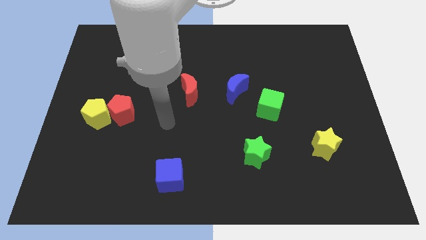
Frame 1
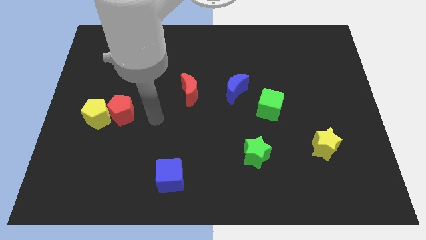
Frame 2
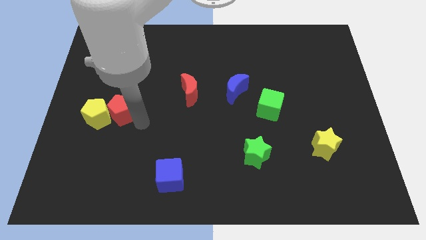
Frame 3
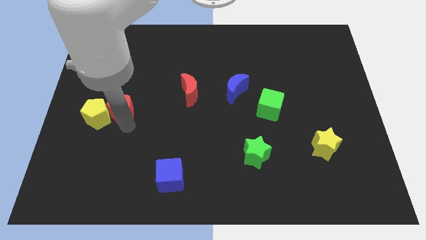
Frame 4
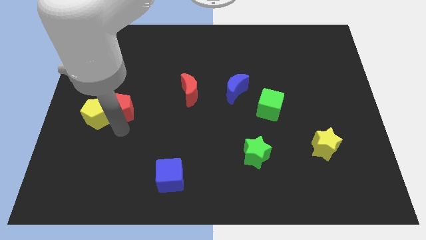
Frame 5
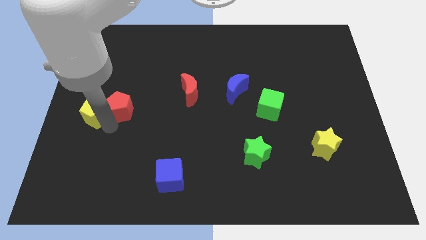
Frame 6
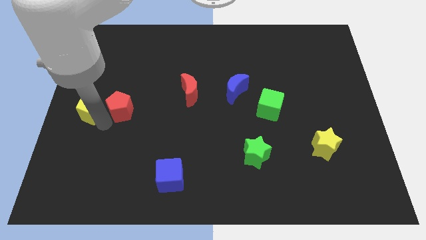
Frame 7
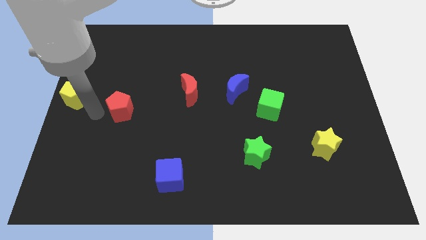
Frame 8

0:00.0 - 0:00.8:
pull the red pentagon apart from the yellow pentagon

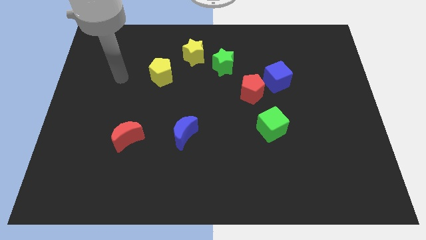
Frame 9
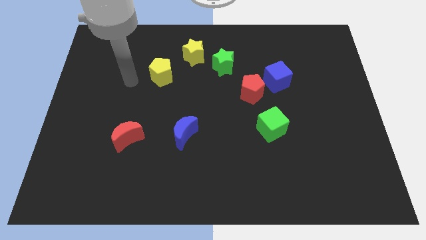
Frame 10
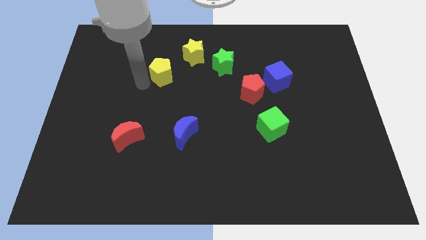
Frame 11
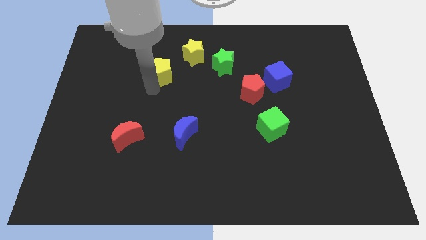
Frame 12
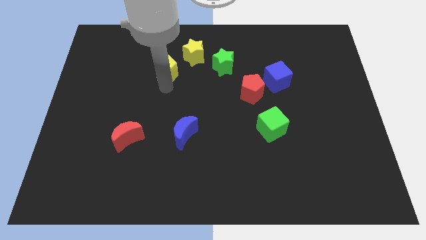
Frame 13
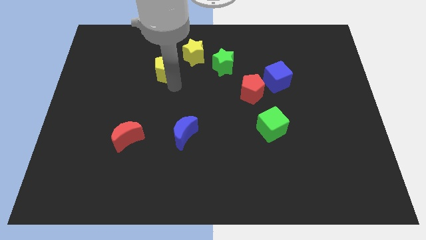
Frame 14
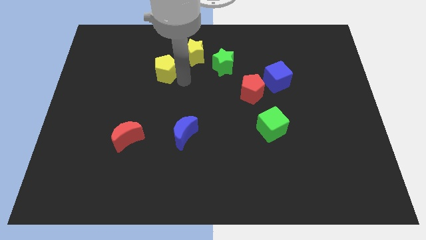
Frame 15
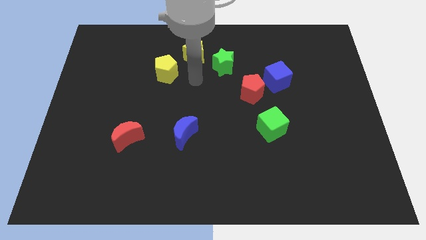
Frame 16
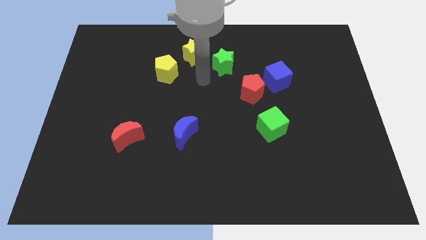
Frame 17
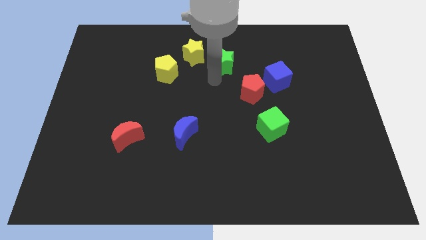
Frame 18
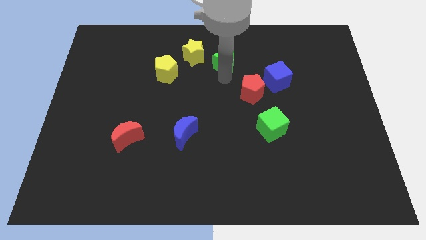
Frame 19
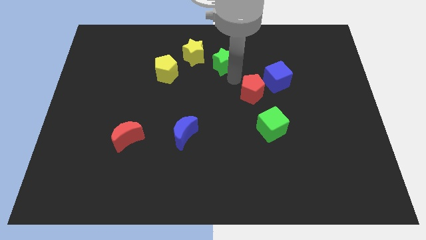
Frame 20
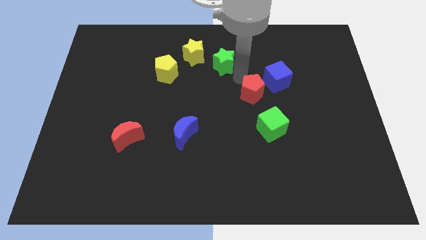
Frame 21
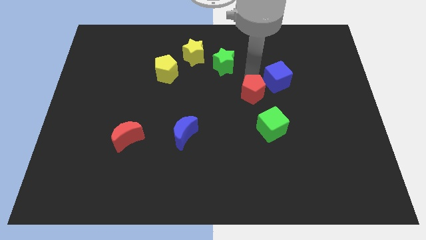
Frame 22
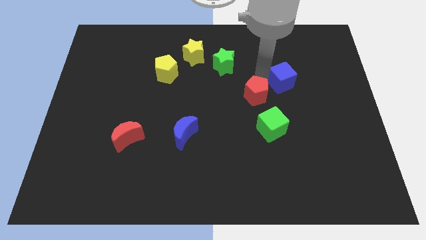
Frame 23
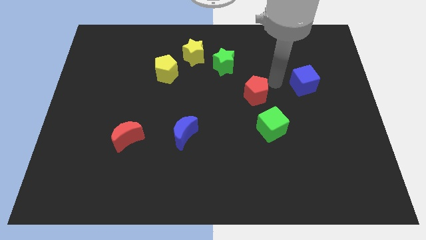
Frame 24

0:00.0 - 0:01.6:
pull the red pentagon apart from the blue cube

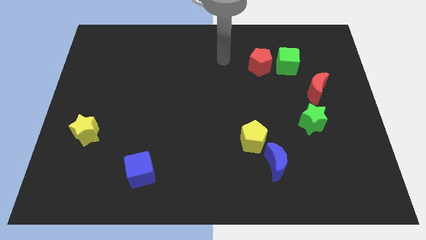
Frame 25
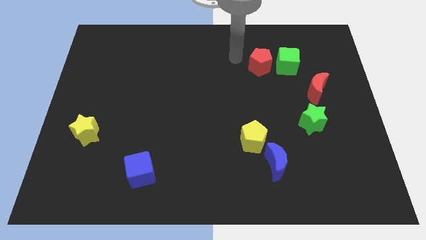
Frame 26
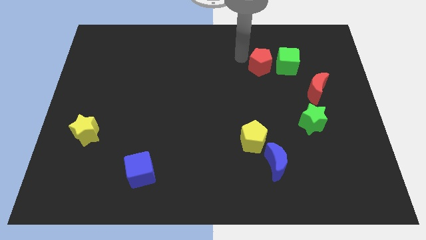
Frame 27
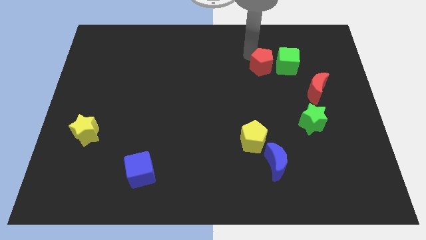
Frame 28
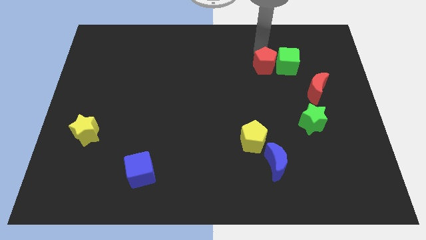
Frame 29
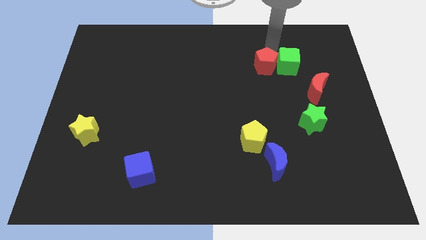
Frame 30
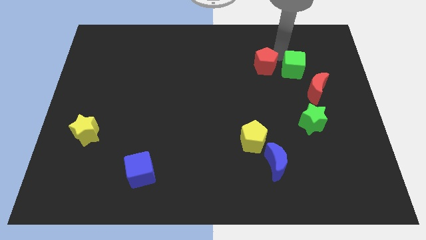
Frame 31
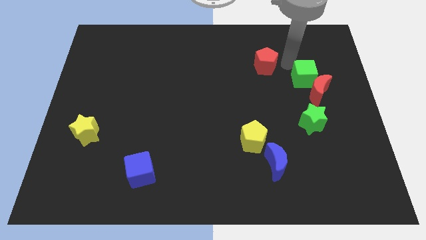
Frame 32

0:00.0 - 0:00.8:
move the red pentagon away from the green cube

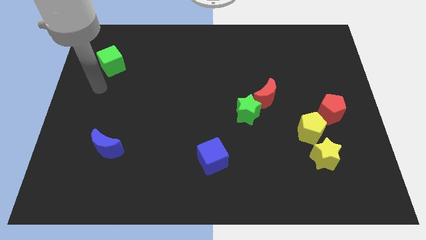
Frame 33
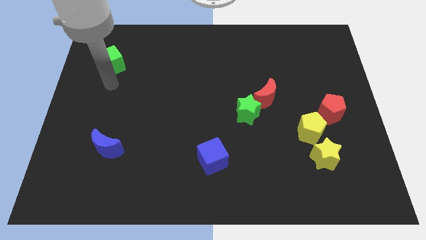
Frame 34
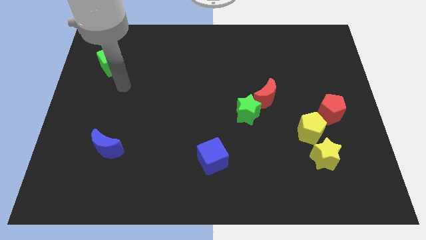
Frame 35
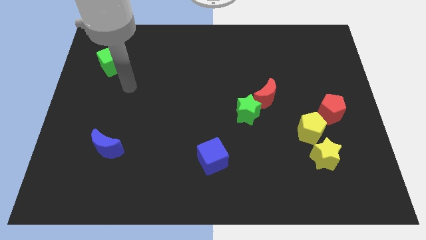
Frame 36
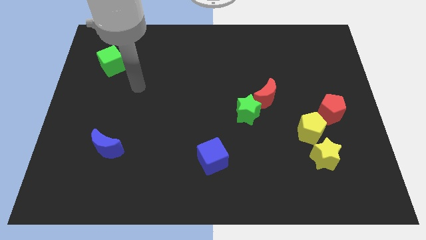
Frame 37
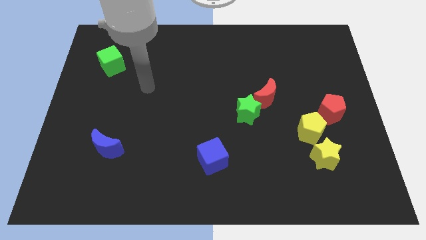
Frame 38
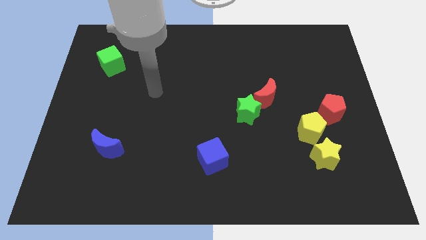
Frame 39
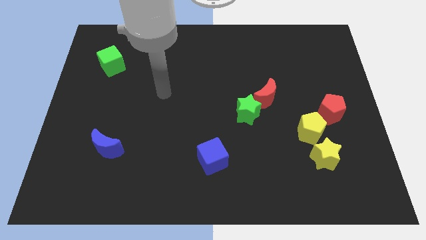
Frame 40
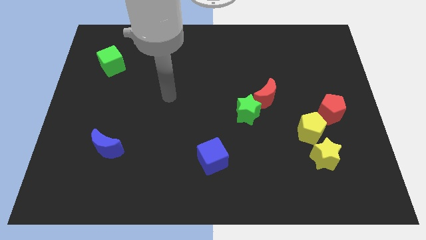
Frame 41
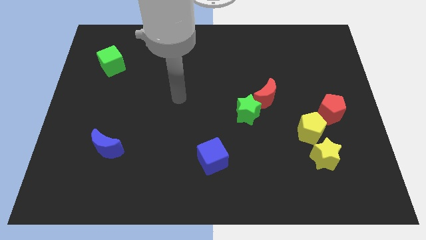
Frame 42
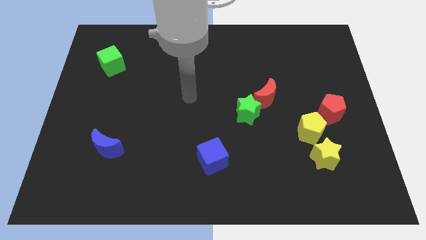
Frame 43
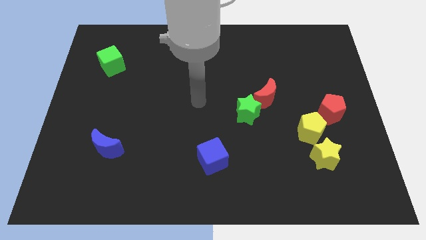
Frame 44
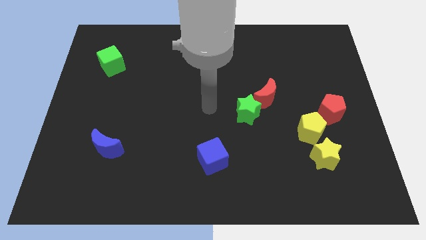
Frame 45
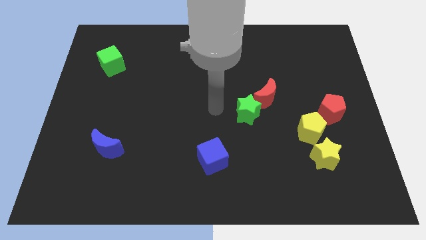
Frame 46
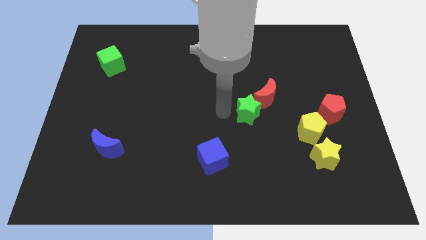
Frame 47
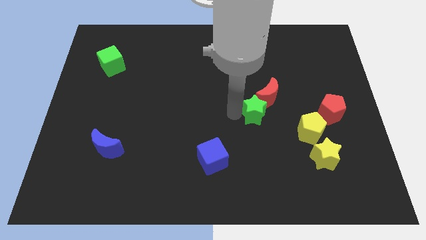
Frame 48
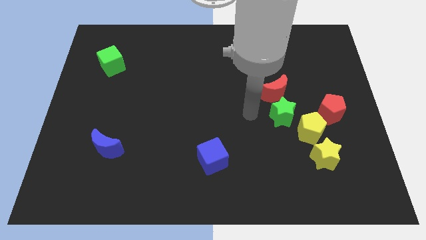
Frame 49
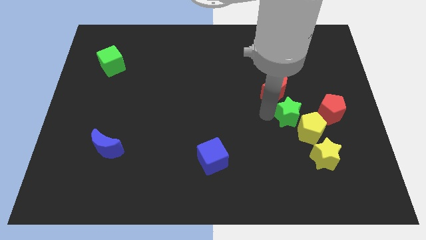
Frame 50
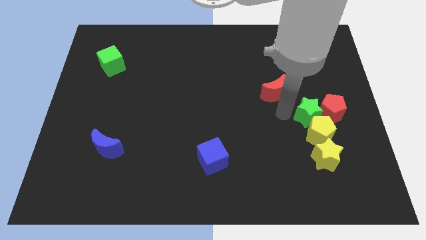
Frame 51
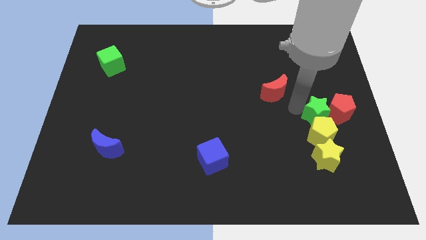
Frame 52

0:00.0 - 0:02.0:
move the red moon away from the green star

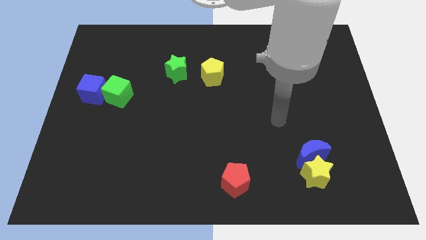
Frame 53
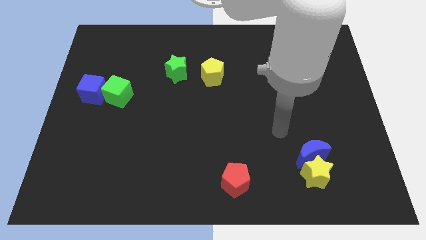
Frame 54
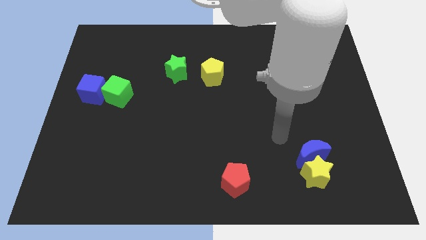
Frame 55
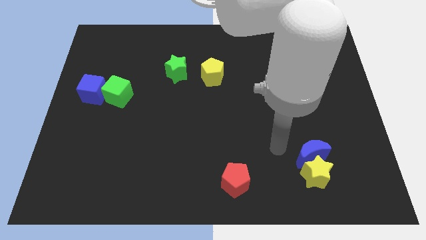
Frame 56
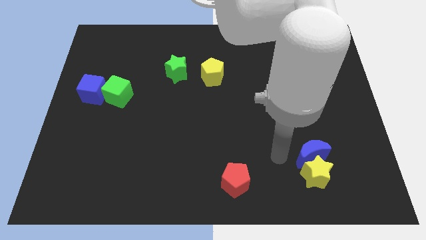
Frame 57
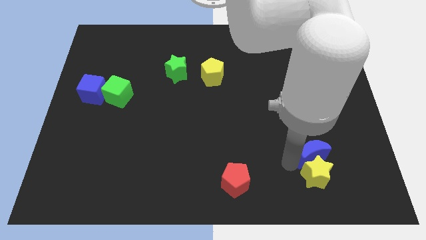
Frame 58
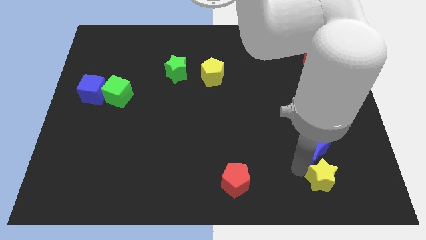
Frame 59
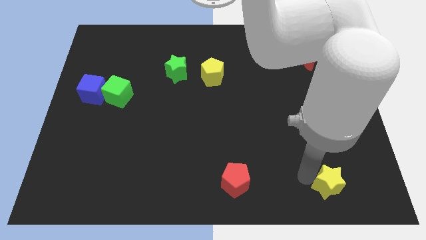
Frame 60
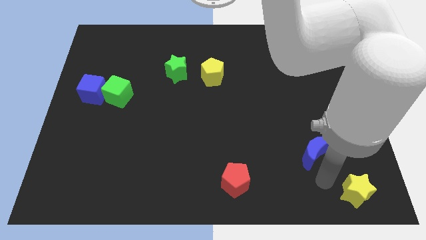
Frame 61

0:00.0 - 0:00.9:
separate the blue moon from the yellow star

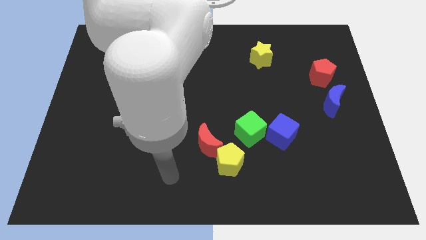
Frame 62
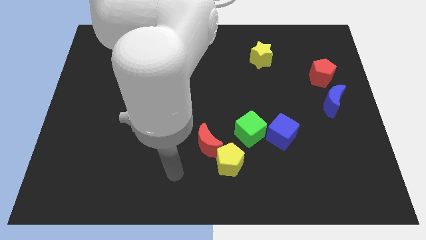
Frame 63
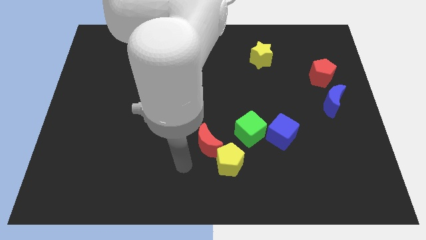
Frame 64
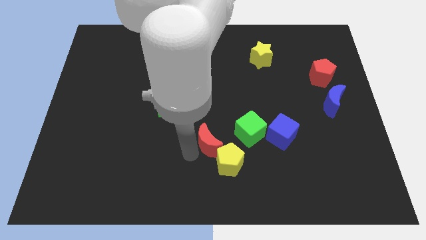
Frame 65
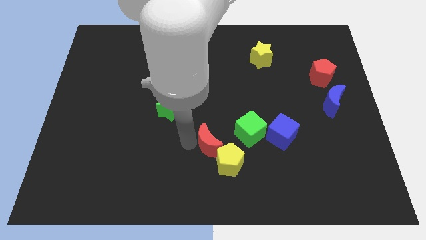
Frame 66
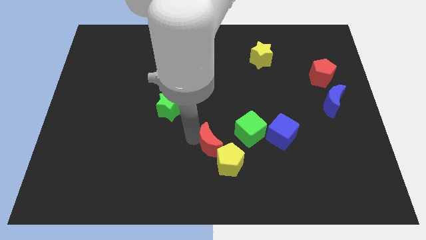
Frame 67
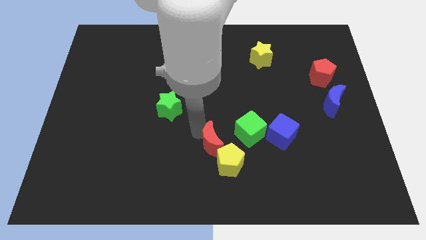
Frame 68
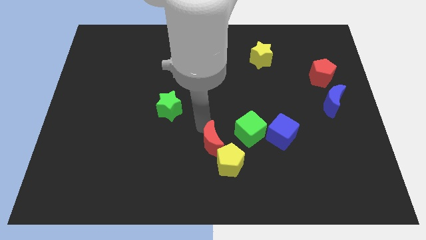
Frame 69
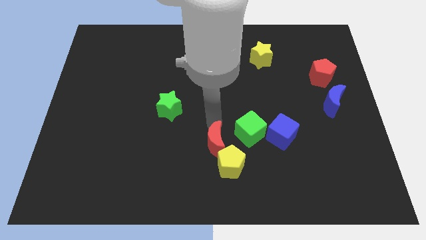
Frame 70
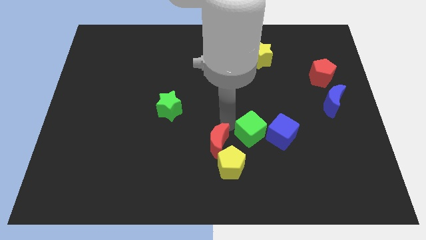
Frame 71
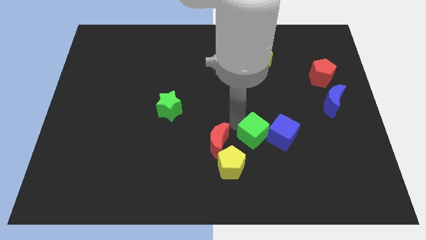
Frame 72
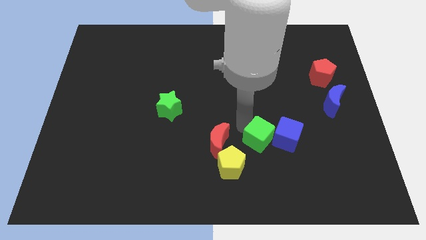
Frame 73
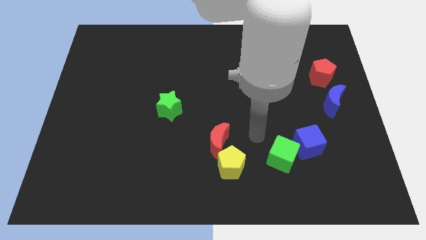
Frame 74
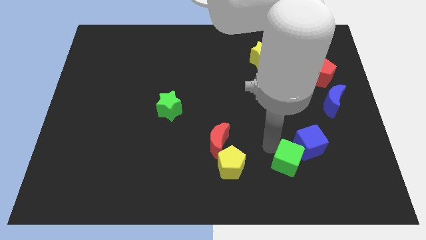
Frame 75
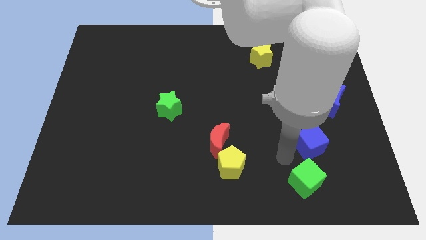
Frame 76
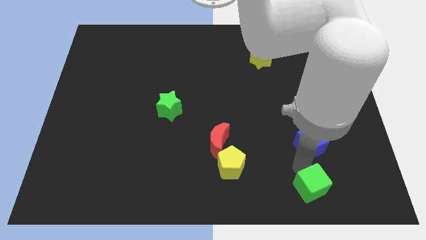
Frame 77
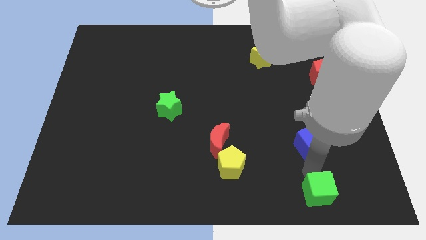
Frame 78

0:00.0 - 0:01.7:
move the blue cube away from the green cube

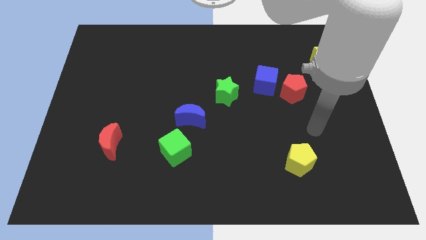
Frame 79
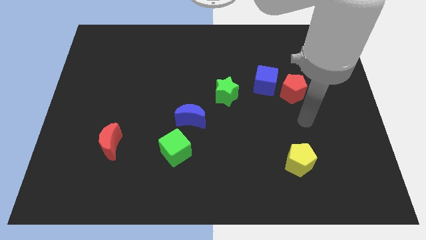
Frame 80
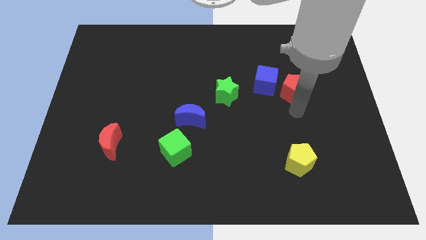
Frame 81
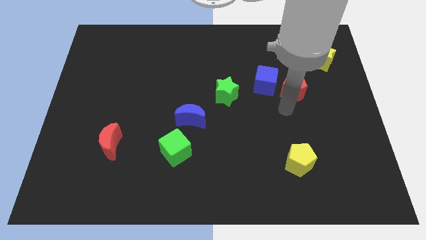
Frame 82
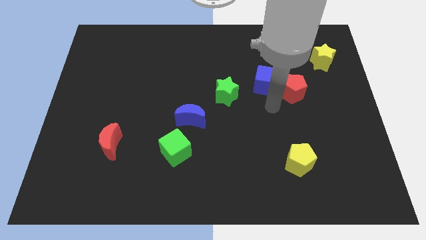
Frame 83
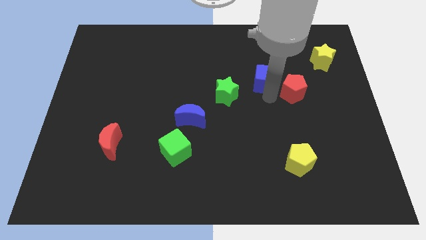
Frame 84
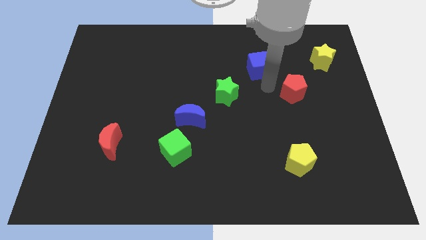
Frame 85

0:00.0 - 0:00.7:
move the red pentagon away from the blue cube

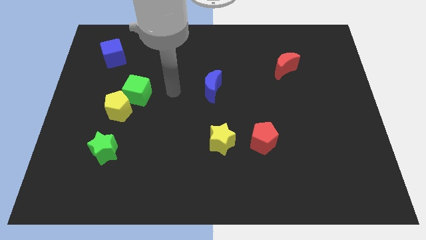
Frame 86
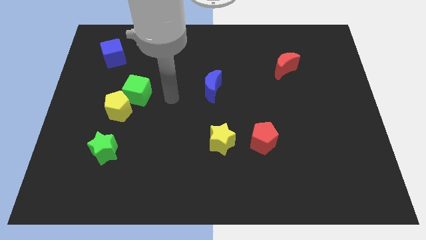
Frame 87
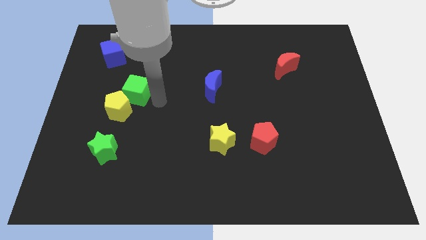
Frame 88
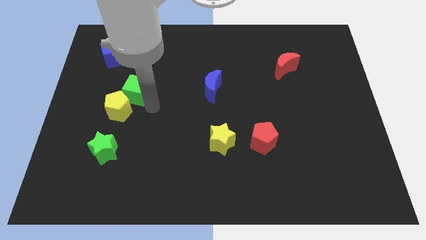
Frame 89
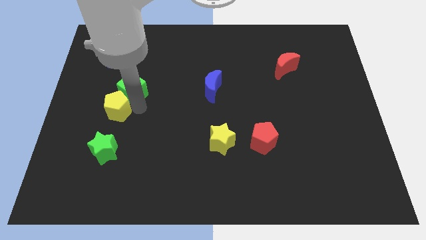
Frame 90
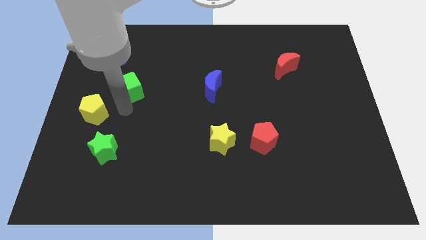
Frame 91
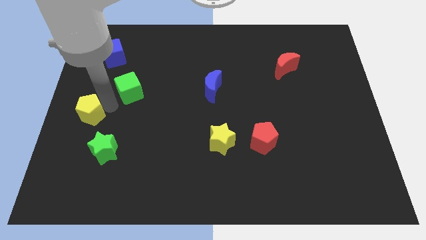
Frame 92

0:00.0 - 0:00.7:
separate the green cube from the yellow pentagon

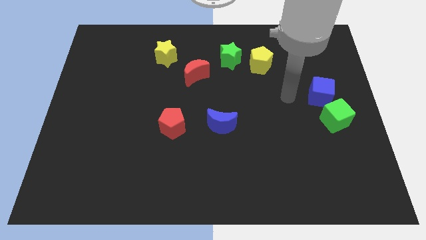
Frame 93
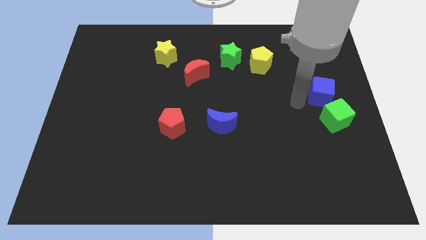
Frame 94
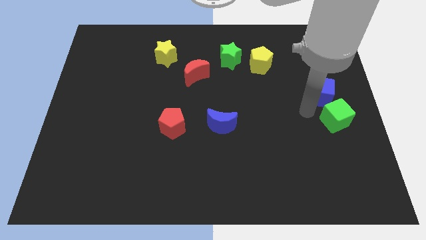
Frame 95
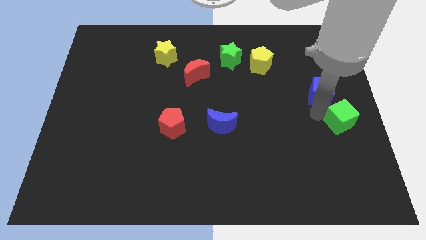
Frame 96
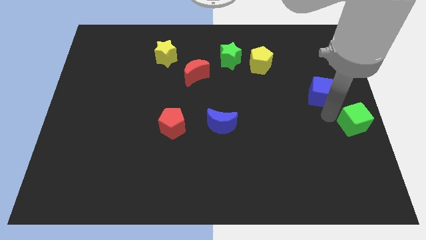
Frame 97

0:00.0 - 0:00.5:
separate the blue cube from the green cube
